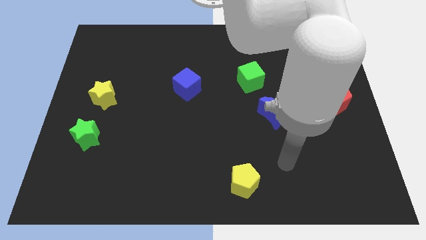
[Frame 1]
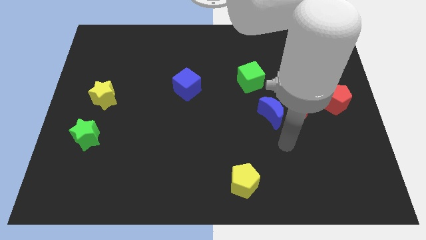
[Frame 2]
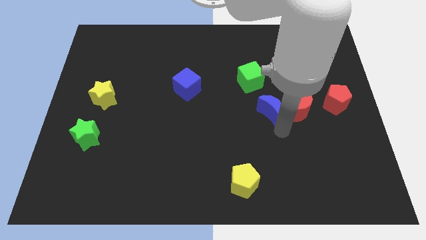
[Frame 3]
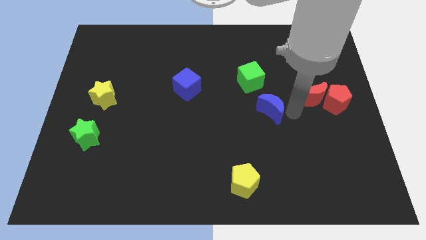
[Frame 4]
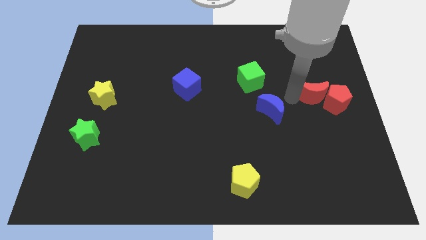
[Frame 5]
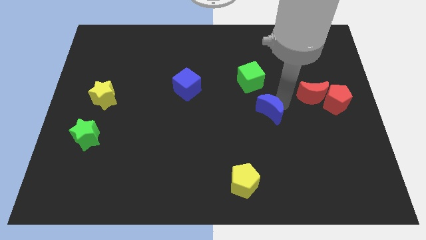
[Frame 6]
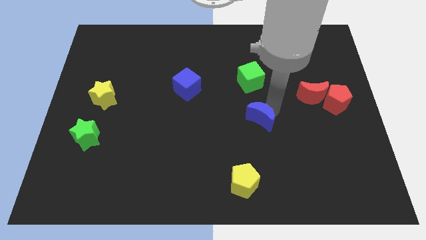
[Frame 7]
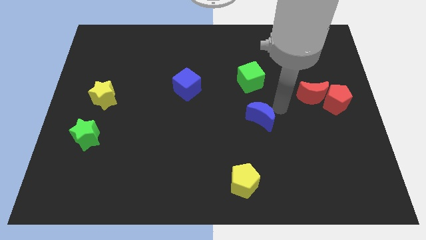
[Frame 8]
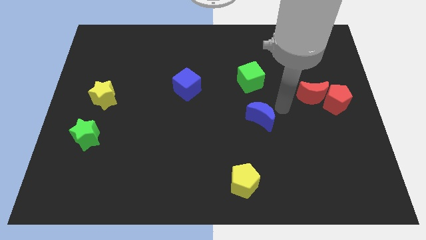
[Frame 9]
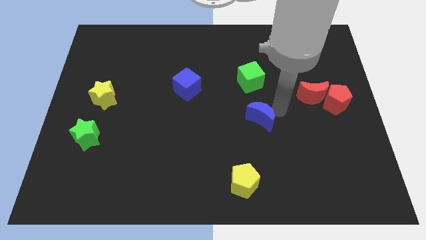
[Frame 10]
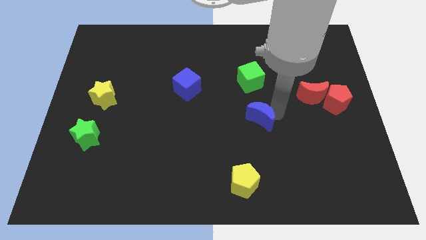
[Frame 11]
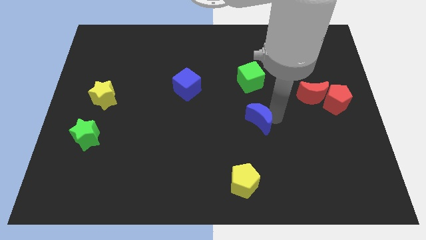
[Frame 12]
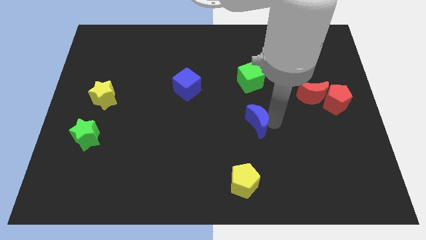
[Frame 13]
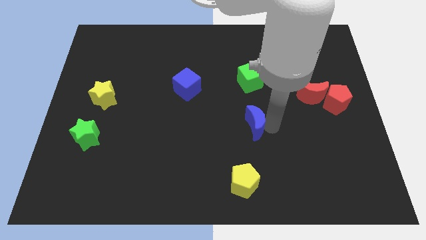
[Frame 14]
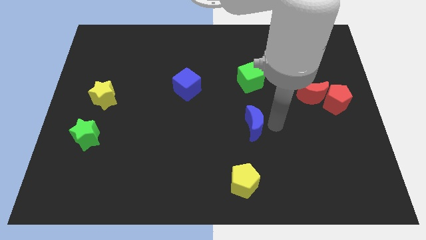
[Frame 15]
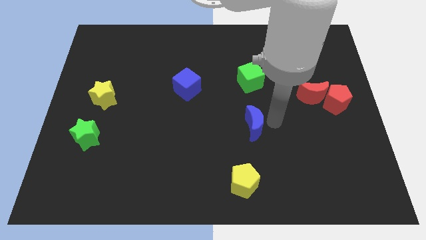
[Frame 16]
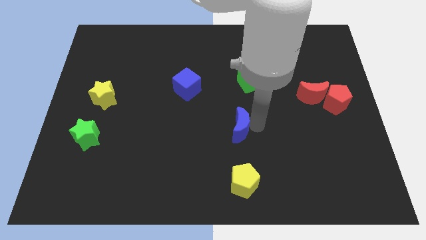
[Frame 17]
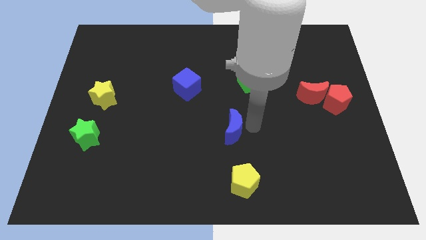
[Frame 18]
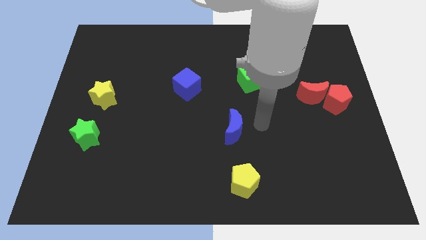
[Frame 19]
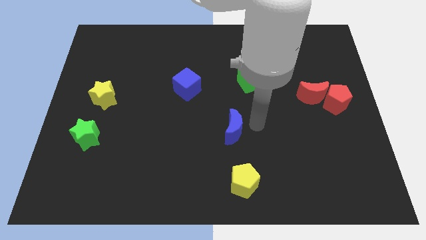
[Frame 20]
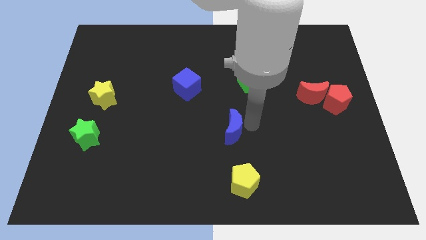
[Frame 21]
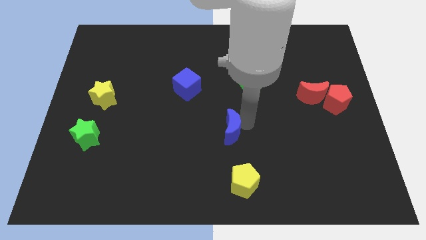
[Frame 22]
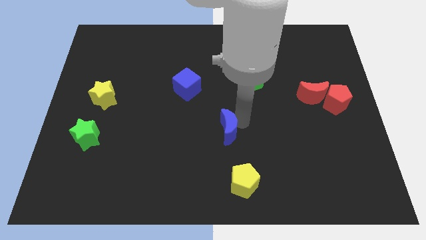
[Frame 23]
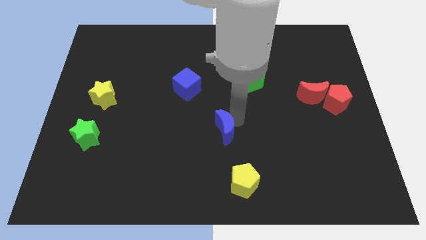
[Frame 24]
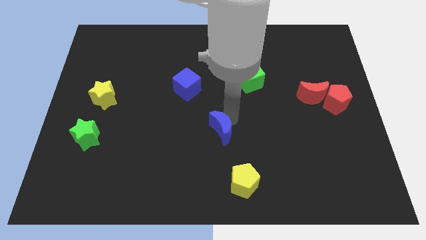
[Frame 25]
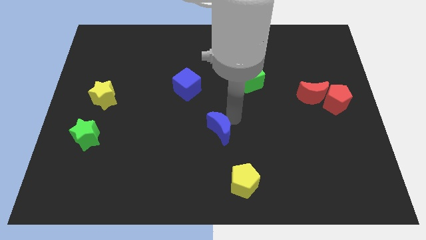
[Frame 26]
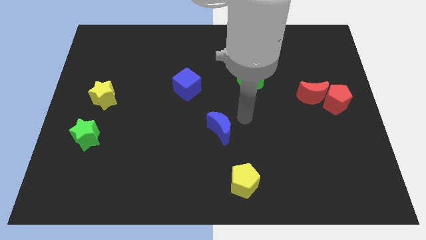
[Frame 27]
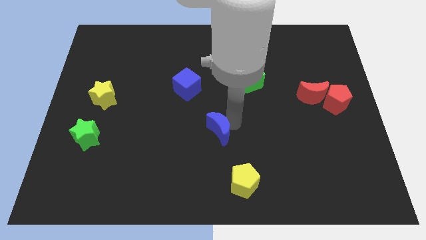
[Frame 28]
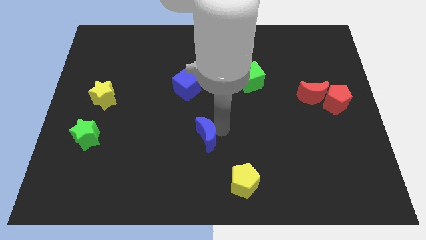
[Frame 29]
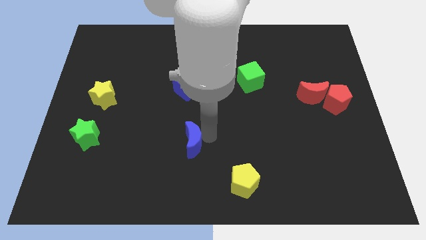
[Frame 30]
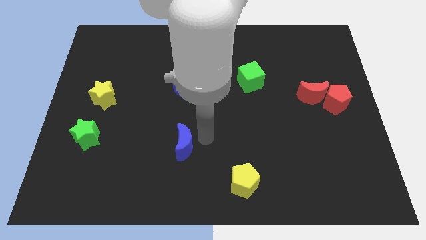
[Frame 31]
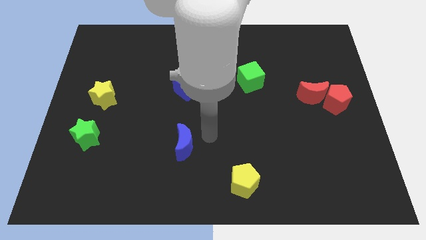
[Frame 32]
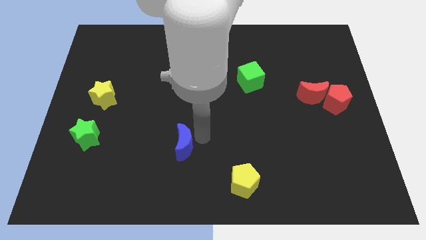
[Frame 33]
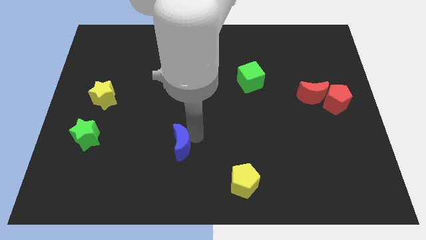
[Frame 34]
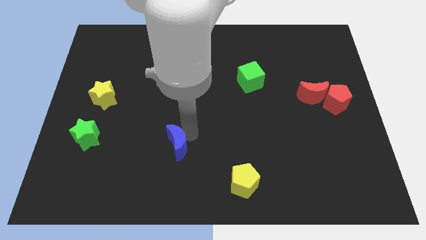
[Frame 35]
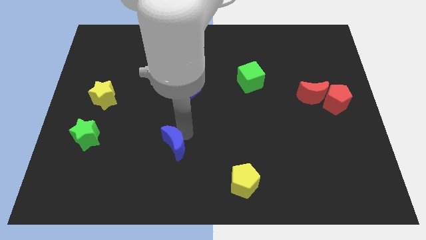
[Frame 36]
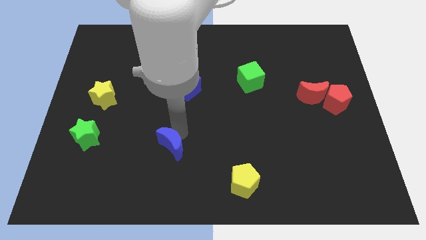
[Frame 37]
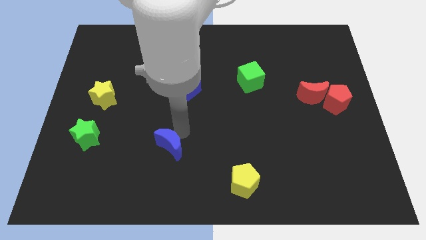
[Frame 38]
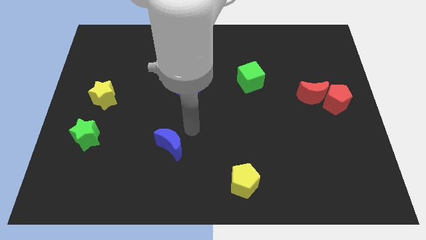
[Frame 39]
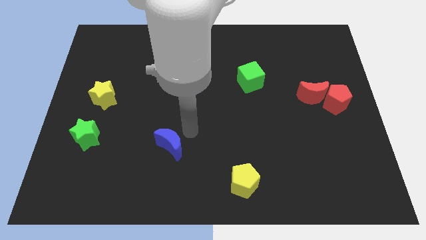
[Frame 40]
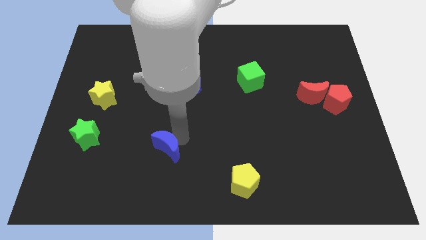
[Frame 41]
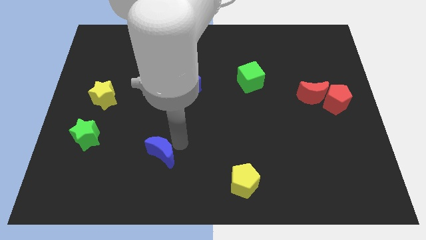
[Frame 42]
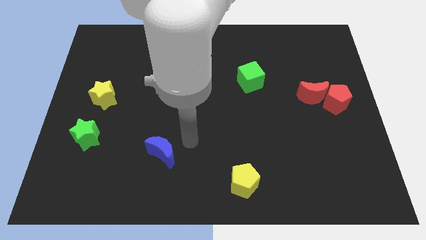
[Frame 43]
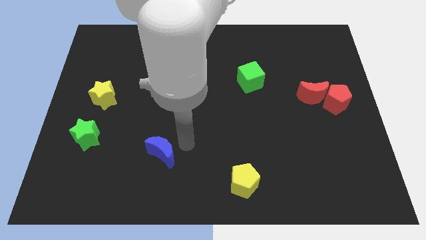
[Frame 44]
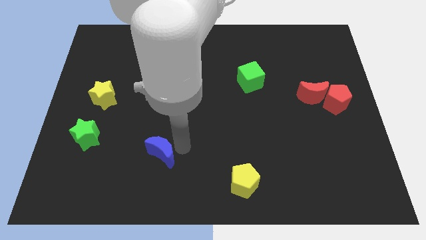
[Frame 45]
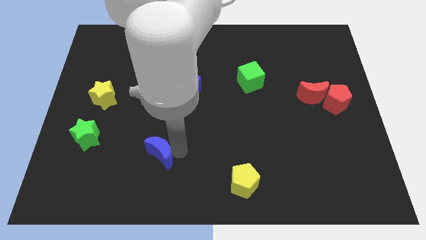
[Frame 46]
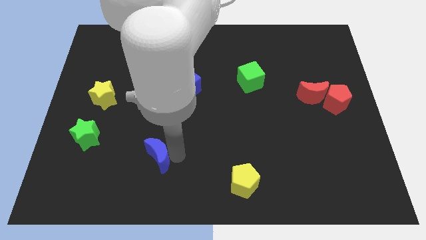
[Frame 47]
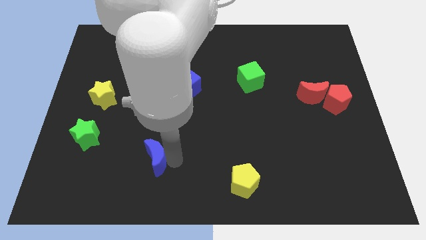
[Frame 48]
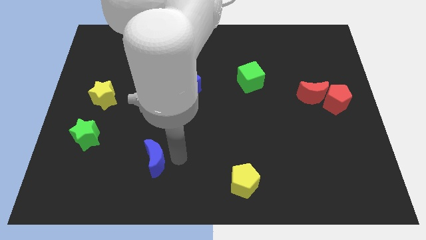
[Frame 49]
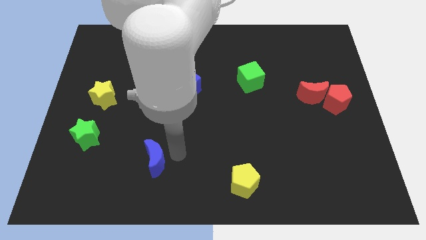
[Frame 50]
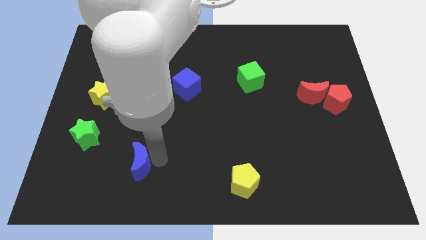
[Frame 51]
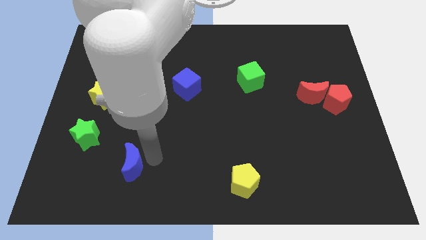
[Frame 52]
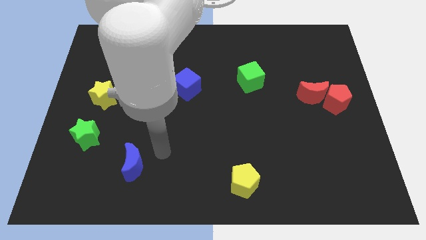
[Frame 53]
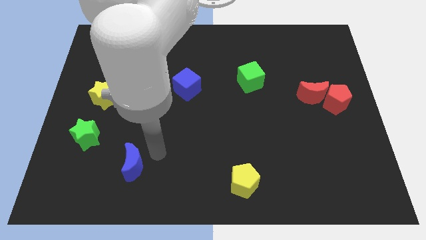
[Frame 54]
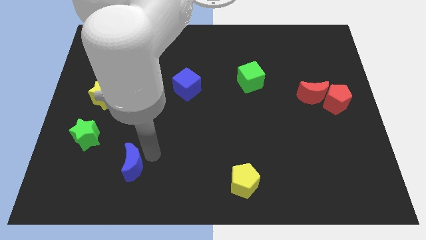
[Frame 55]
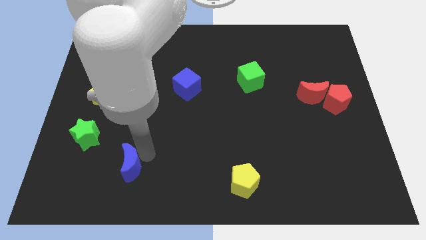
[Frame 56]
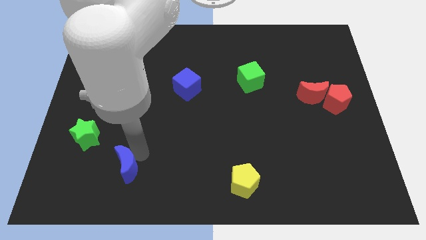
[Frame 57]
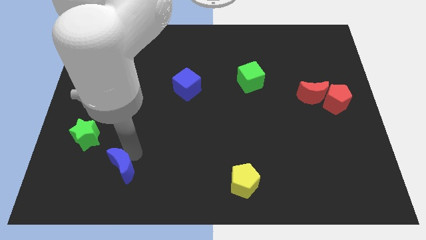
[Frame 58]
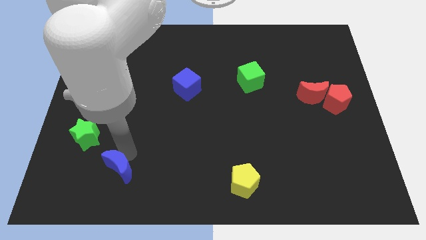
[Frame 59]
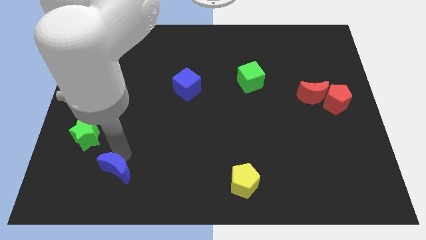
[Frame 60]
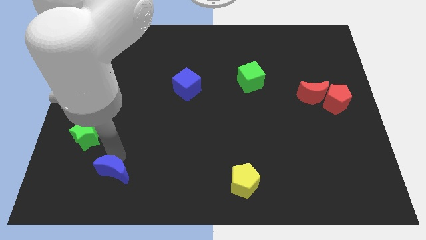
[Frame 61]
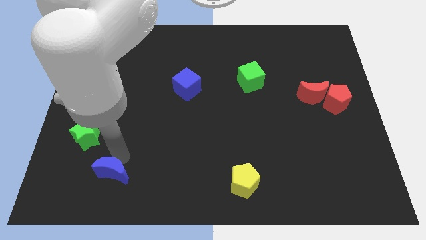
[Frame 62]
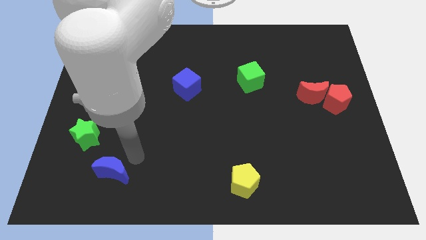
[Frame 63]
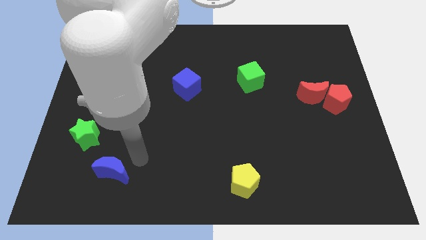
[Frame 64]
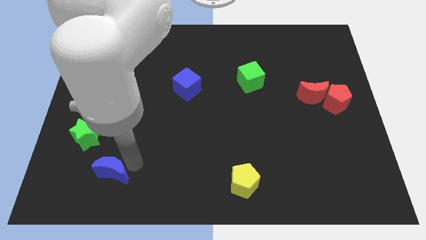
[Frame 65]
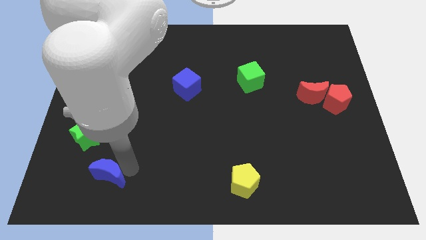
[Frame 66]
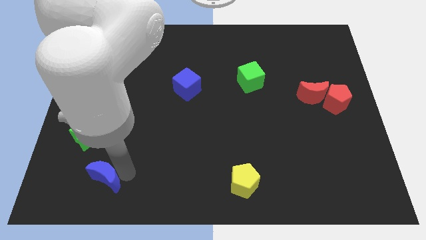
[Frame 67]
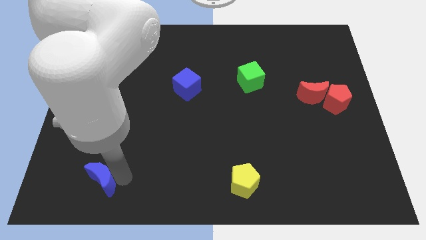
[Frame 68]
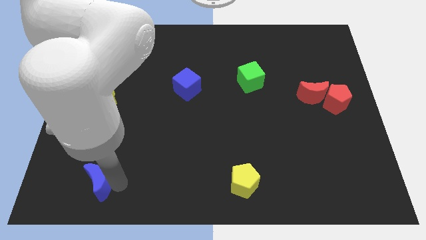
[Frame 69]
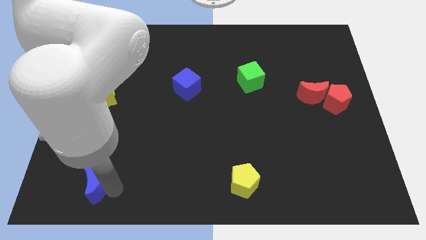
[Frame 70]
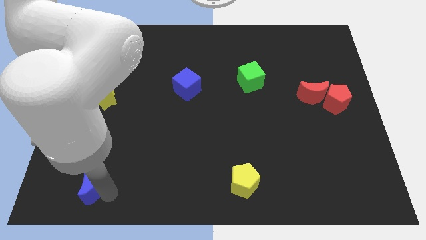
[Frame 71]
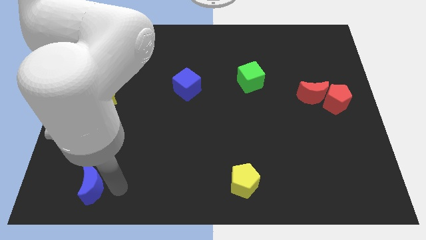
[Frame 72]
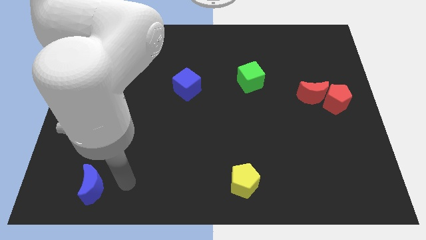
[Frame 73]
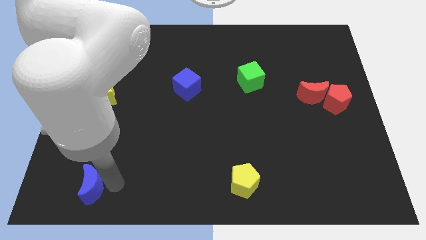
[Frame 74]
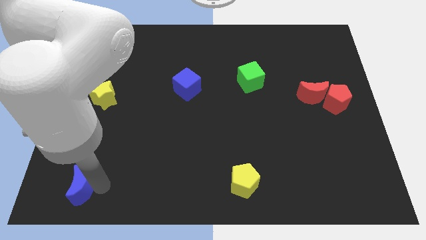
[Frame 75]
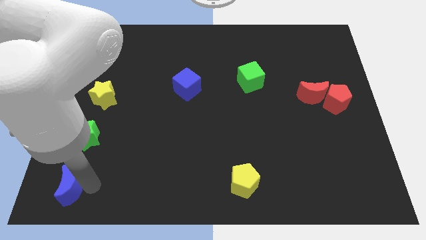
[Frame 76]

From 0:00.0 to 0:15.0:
push the blue moon to the bottom left corner
